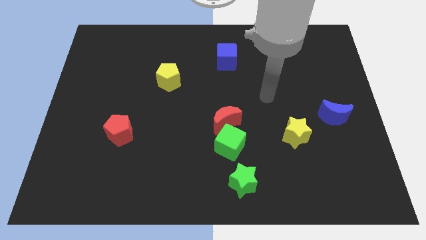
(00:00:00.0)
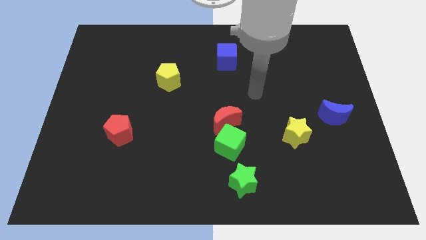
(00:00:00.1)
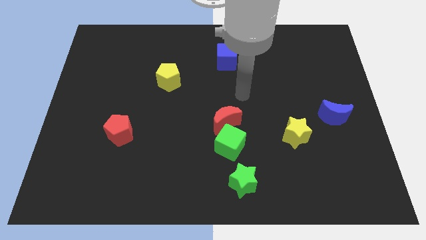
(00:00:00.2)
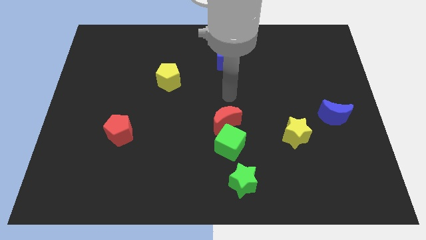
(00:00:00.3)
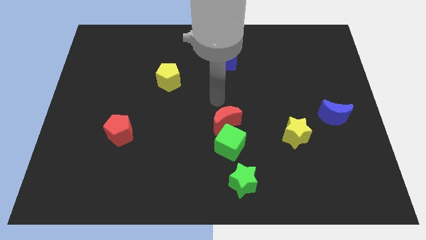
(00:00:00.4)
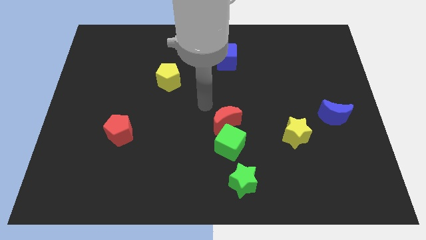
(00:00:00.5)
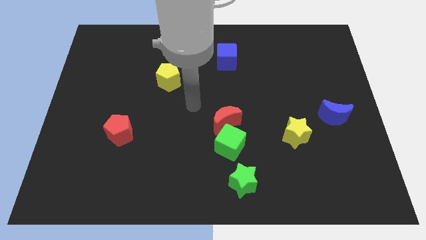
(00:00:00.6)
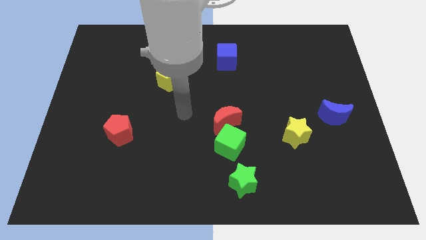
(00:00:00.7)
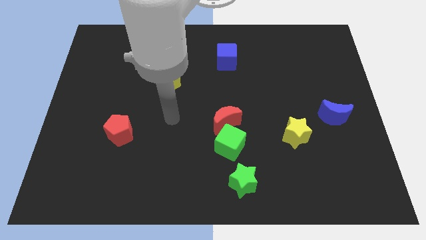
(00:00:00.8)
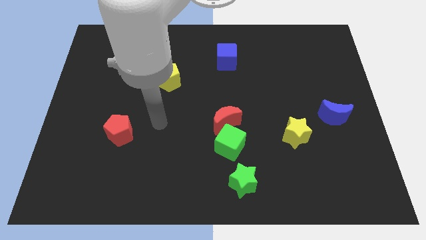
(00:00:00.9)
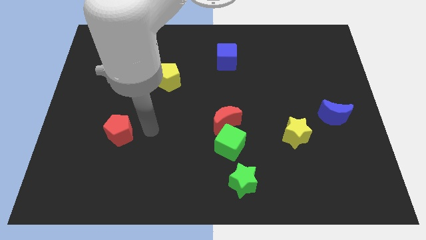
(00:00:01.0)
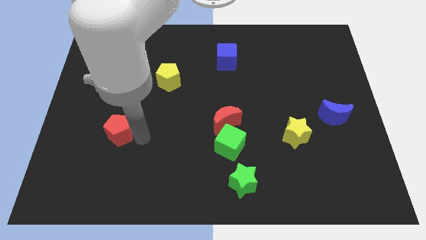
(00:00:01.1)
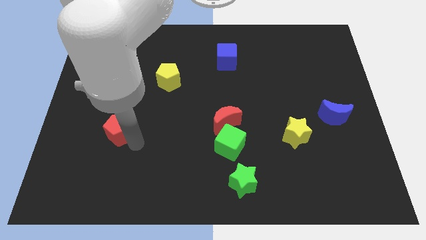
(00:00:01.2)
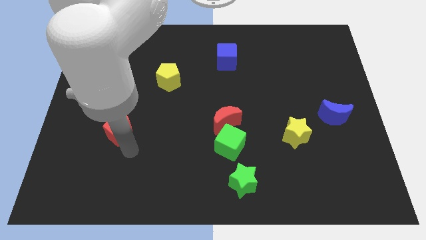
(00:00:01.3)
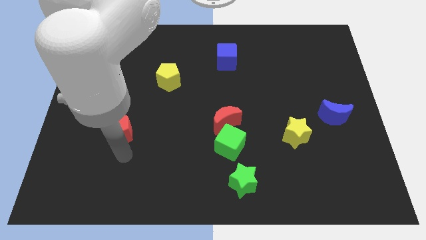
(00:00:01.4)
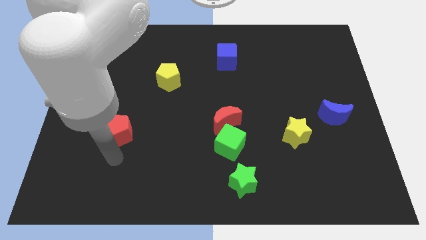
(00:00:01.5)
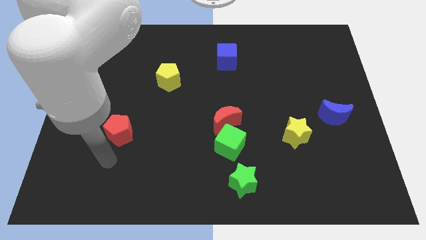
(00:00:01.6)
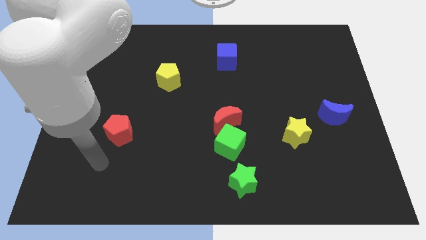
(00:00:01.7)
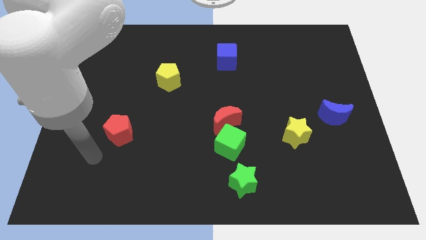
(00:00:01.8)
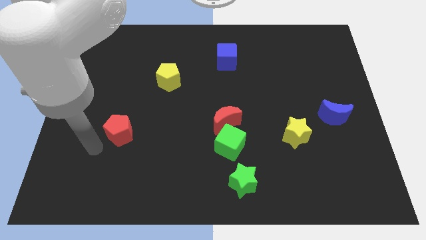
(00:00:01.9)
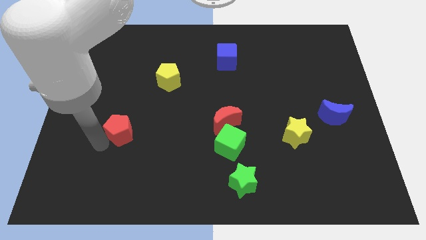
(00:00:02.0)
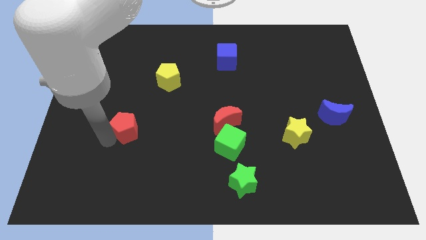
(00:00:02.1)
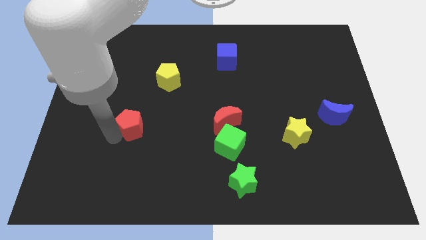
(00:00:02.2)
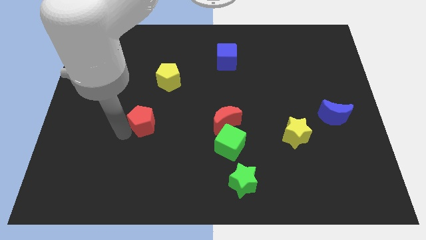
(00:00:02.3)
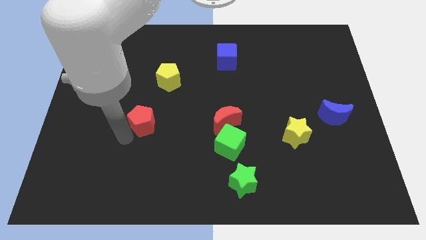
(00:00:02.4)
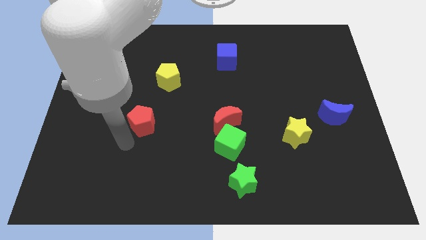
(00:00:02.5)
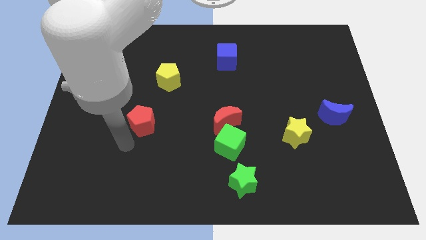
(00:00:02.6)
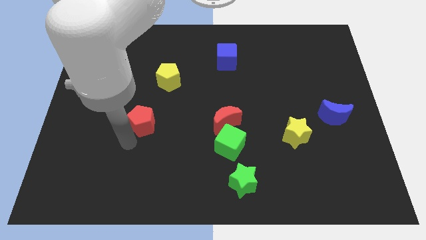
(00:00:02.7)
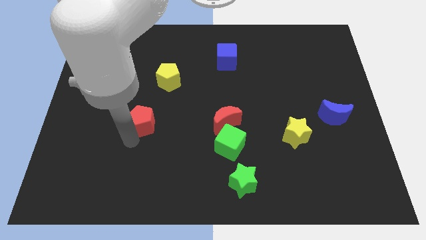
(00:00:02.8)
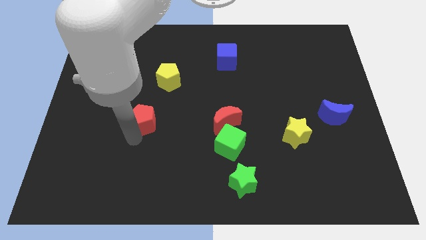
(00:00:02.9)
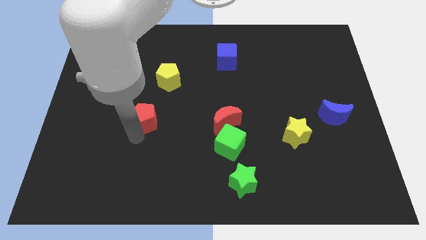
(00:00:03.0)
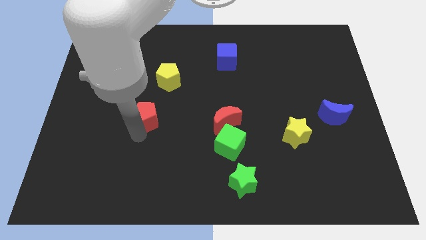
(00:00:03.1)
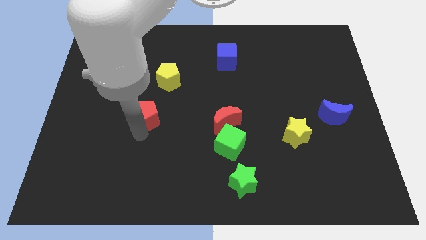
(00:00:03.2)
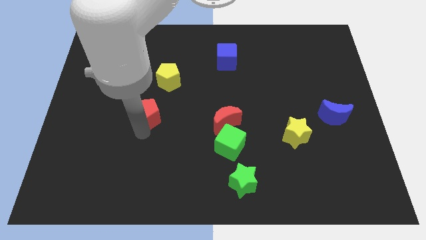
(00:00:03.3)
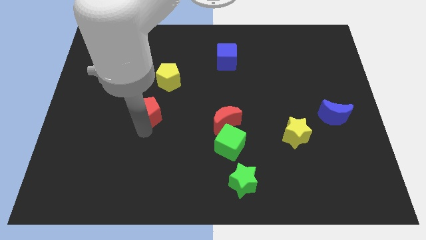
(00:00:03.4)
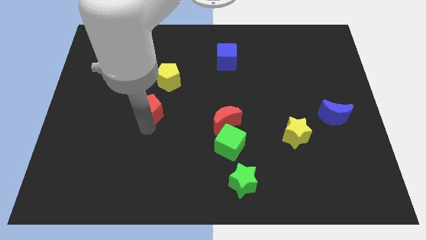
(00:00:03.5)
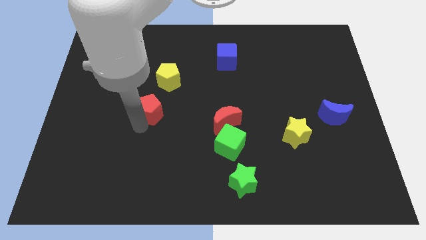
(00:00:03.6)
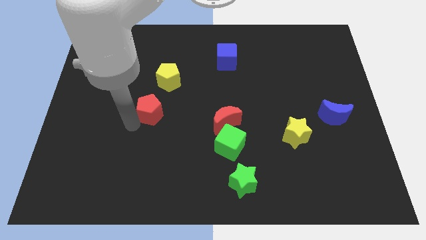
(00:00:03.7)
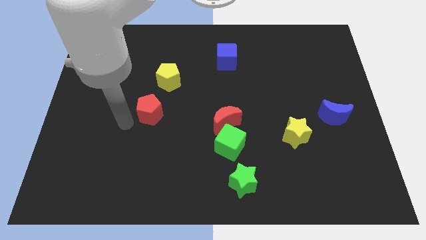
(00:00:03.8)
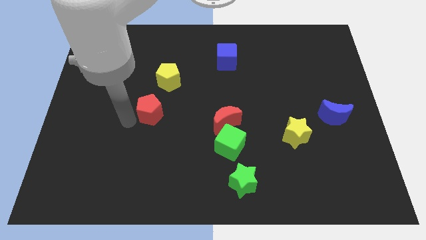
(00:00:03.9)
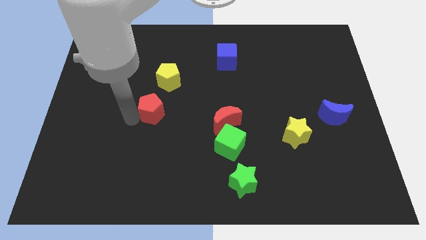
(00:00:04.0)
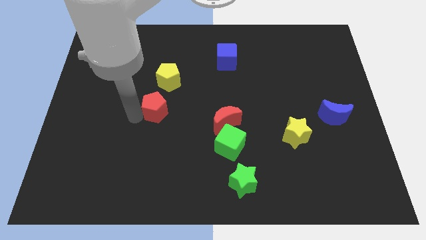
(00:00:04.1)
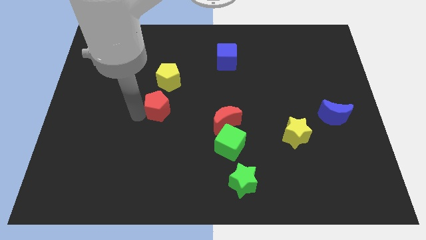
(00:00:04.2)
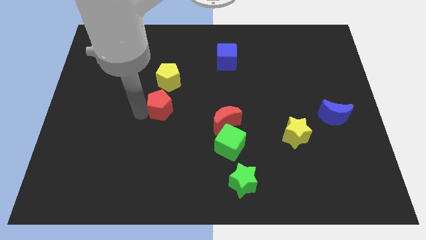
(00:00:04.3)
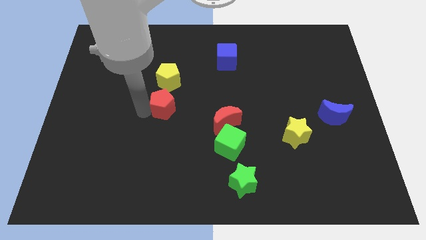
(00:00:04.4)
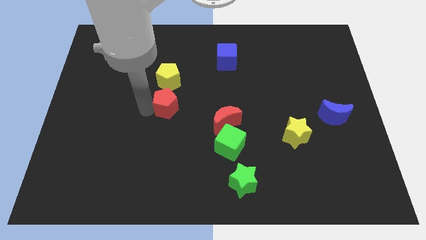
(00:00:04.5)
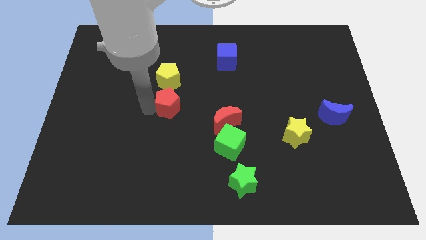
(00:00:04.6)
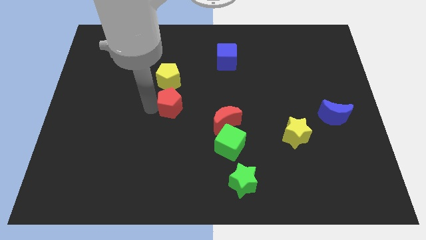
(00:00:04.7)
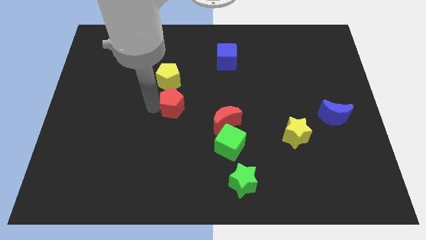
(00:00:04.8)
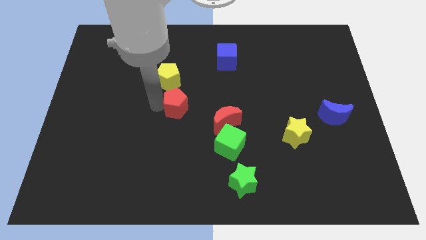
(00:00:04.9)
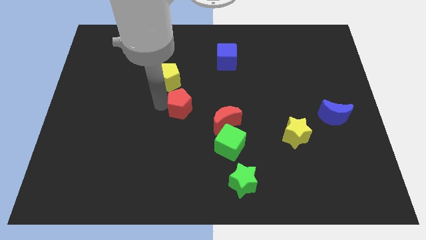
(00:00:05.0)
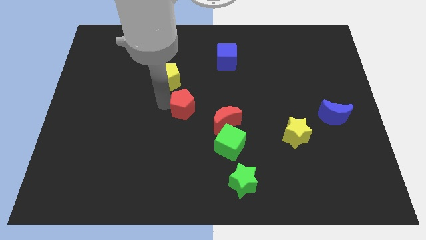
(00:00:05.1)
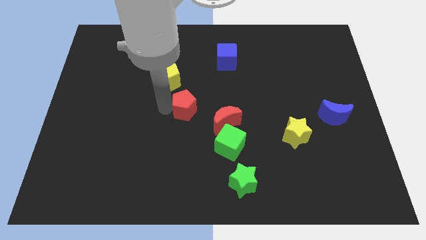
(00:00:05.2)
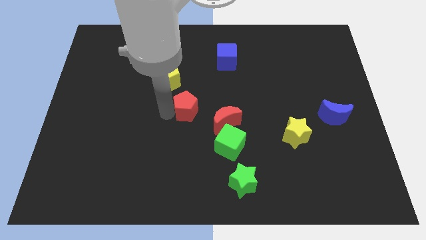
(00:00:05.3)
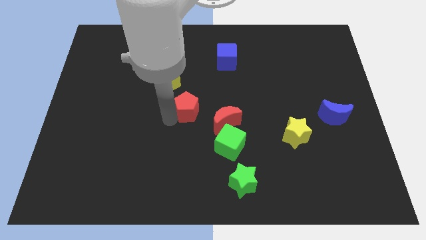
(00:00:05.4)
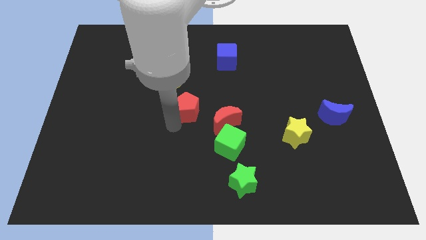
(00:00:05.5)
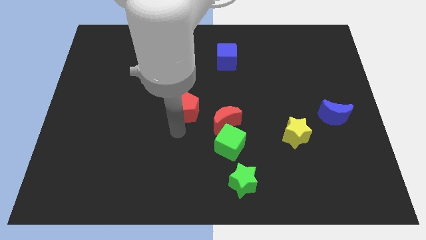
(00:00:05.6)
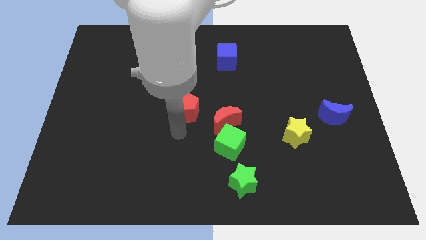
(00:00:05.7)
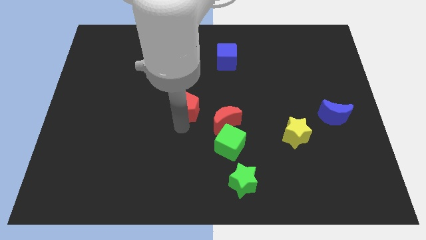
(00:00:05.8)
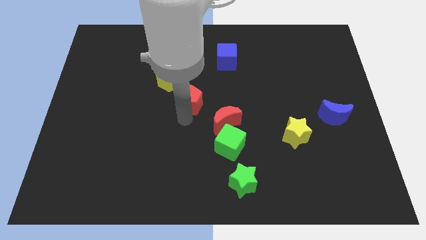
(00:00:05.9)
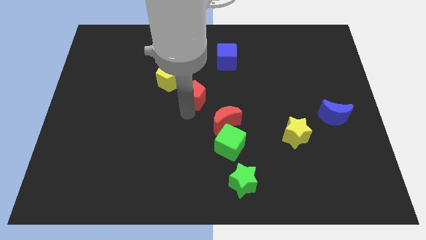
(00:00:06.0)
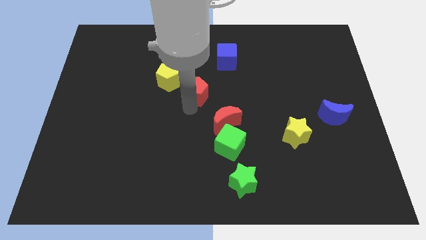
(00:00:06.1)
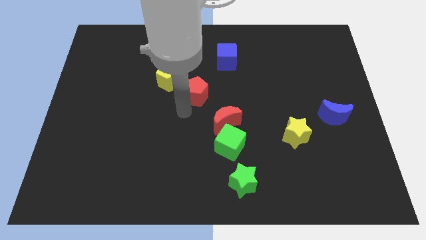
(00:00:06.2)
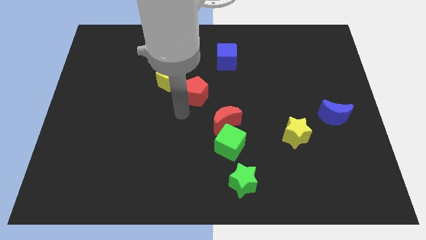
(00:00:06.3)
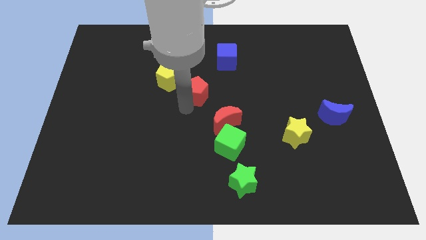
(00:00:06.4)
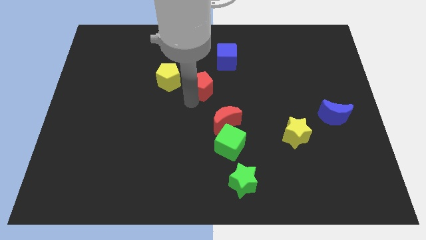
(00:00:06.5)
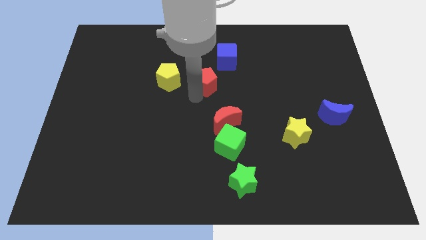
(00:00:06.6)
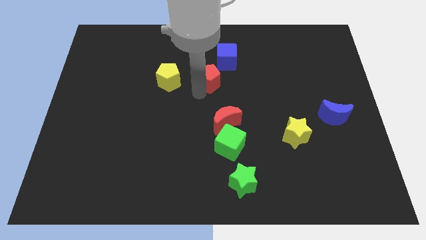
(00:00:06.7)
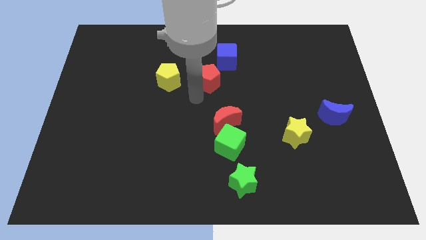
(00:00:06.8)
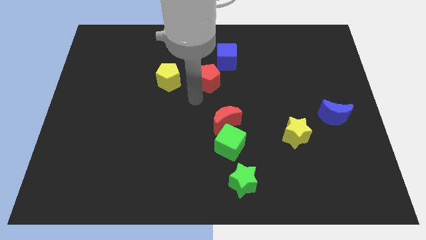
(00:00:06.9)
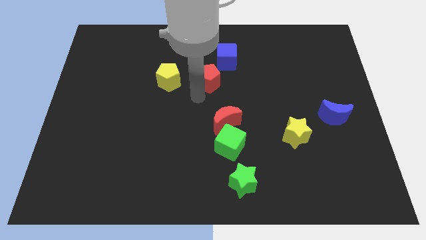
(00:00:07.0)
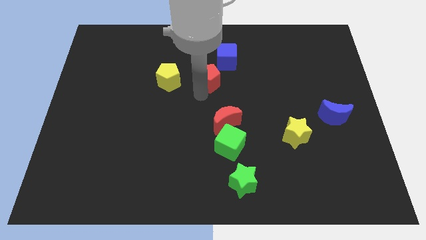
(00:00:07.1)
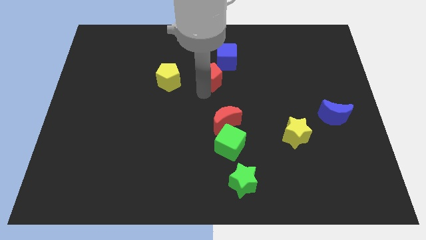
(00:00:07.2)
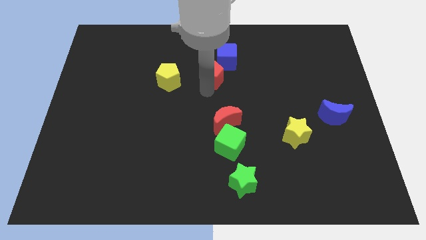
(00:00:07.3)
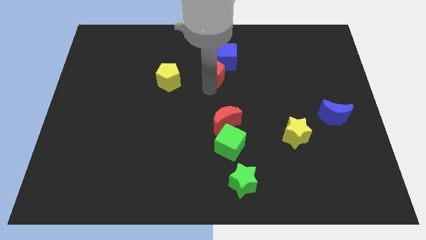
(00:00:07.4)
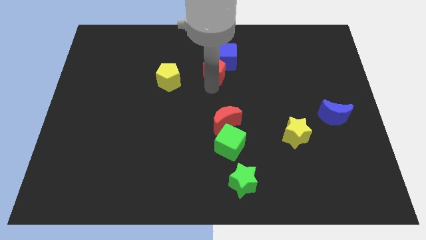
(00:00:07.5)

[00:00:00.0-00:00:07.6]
move the red pentagon to the blue cube

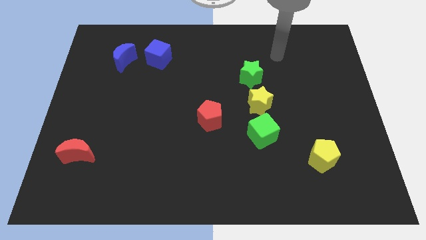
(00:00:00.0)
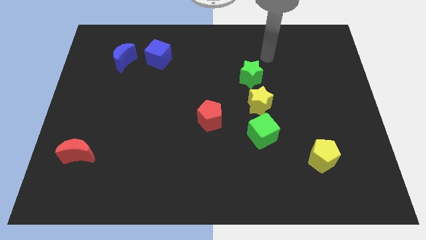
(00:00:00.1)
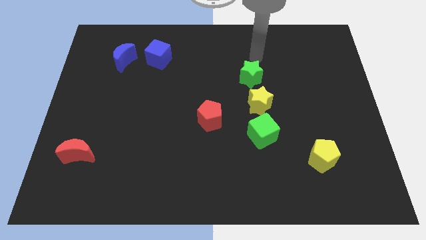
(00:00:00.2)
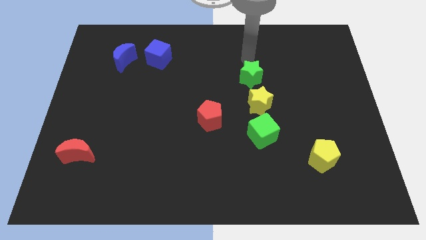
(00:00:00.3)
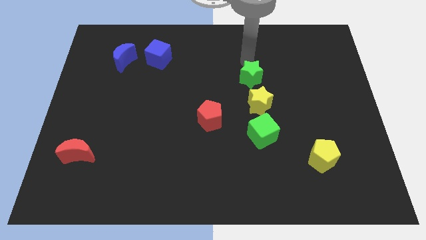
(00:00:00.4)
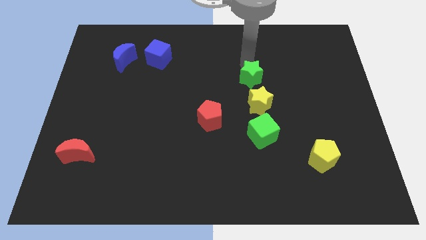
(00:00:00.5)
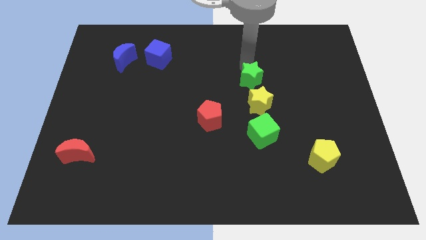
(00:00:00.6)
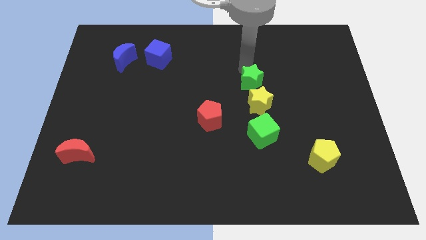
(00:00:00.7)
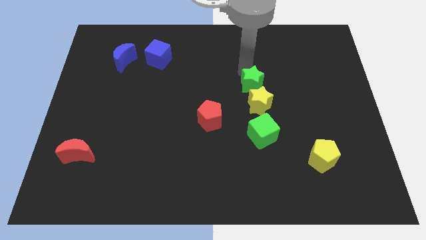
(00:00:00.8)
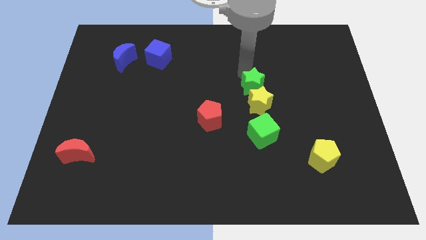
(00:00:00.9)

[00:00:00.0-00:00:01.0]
push the green star towards the yellow star
